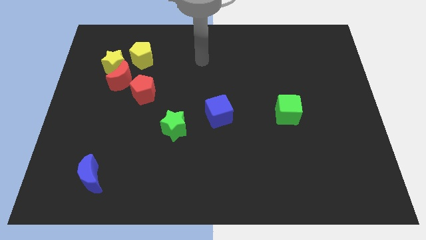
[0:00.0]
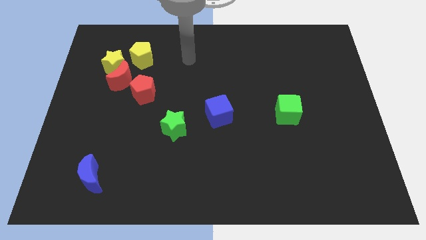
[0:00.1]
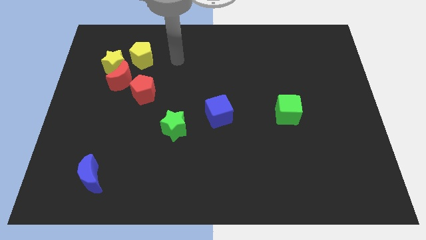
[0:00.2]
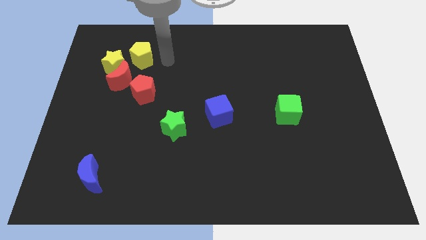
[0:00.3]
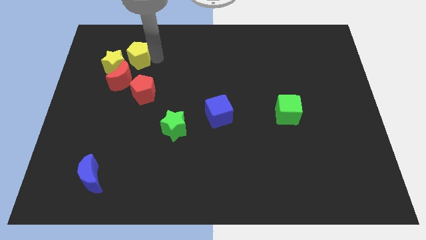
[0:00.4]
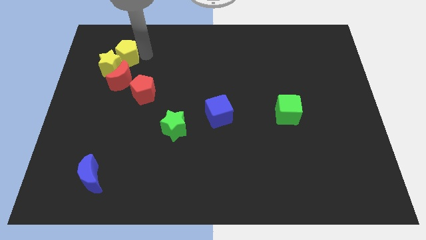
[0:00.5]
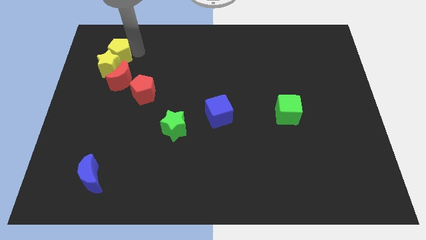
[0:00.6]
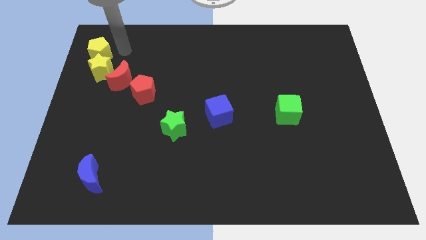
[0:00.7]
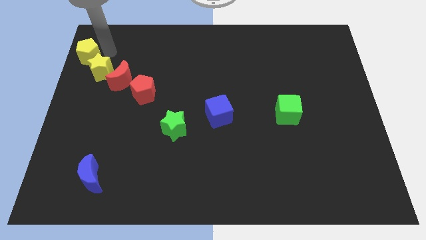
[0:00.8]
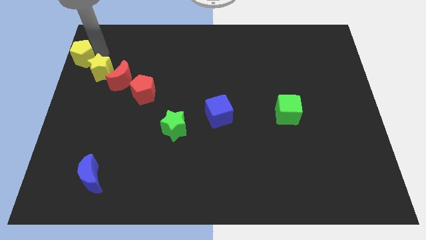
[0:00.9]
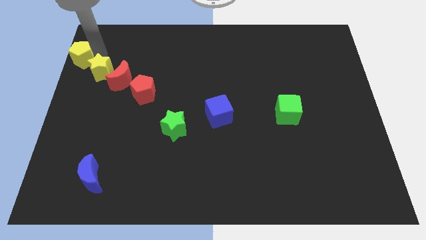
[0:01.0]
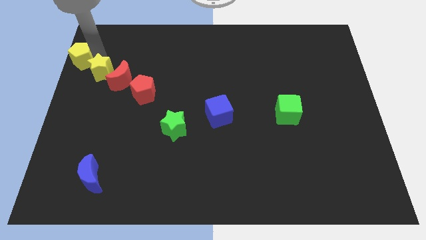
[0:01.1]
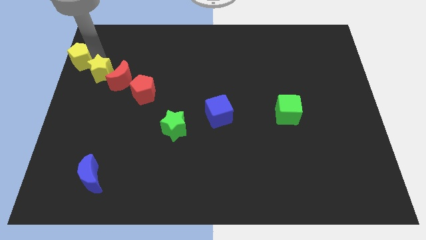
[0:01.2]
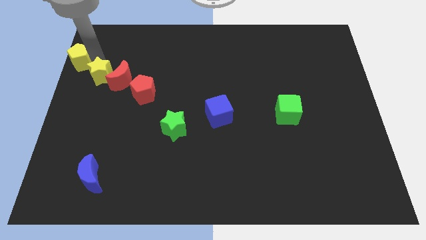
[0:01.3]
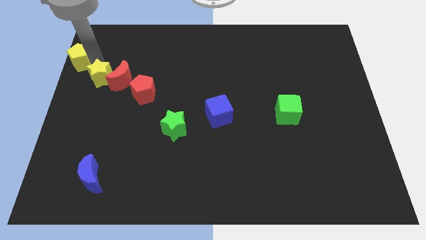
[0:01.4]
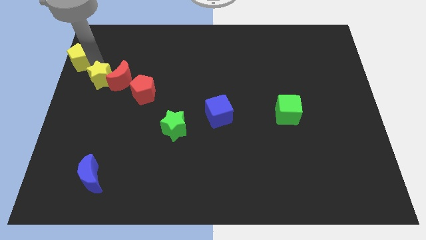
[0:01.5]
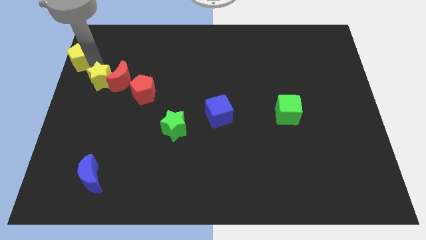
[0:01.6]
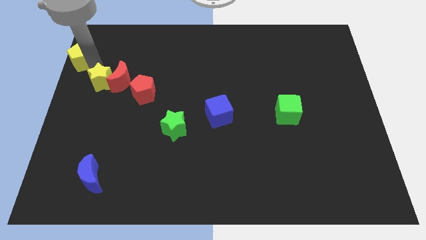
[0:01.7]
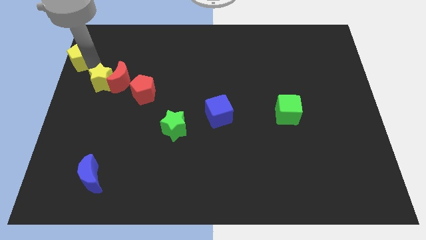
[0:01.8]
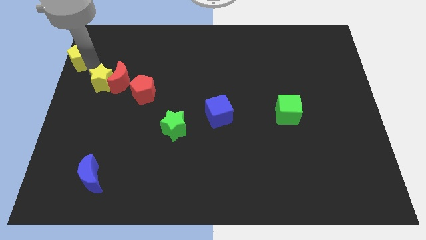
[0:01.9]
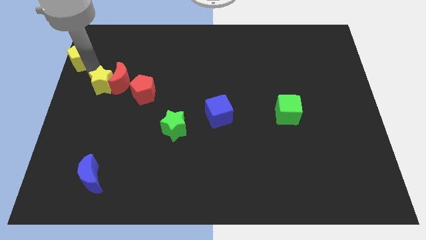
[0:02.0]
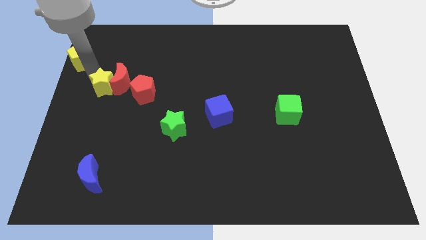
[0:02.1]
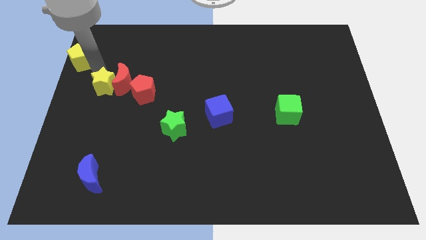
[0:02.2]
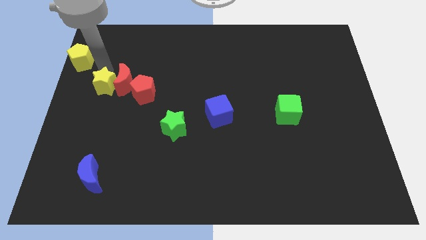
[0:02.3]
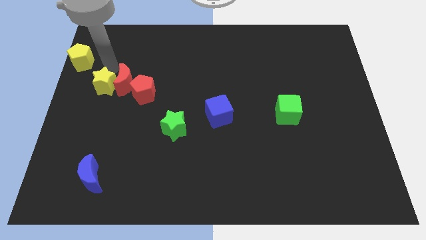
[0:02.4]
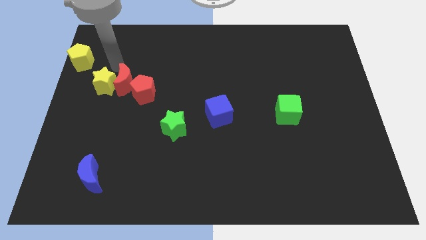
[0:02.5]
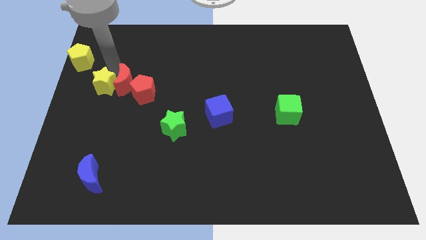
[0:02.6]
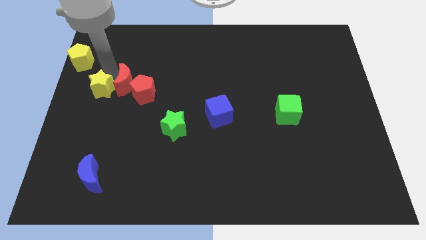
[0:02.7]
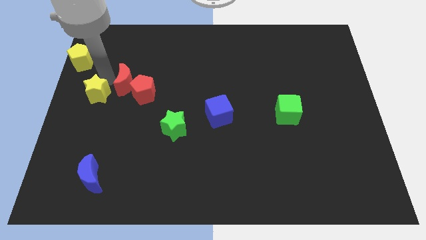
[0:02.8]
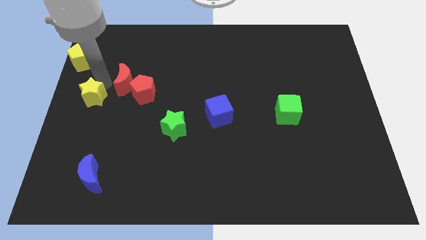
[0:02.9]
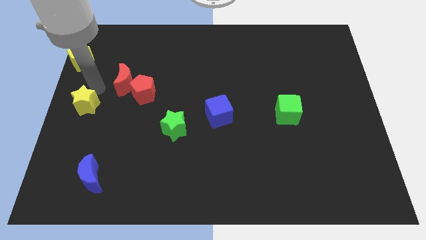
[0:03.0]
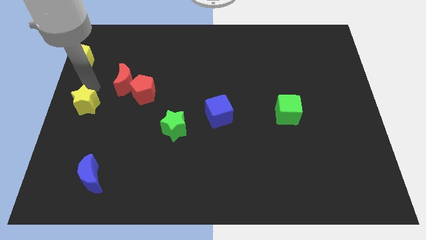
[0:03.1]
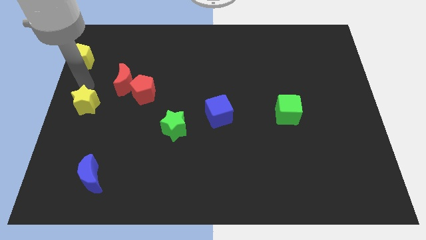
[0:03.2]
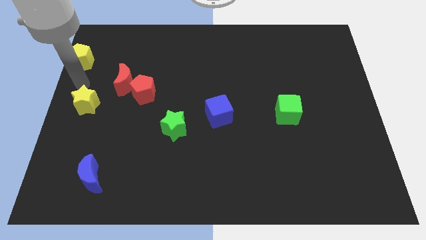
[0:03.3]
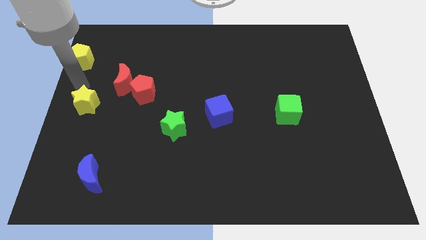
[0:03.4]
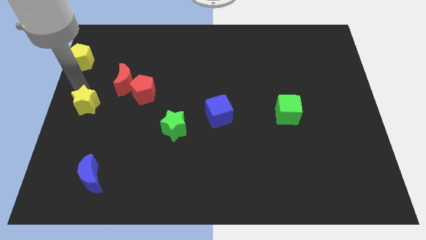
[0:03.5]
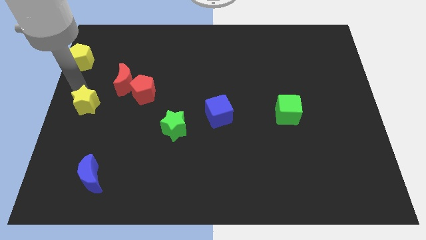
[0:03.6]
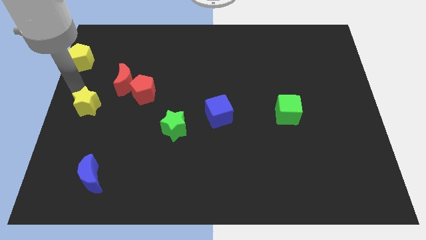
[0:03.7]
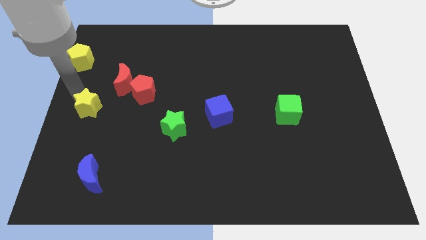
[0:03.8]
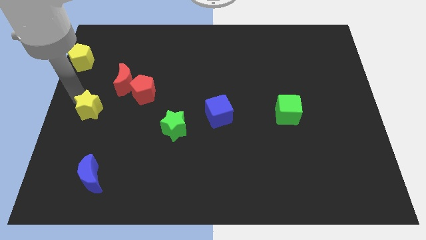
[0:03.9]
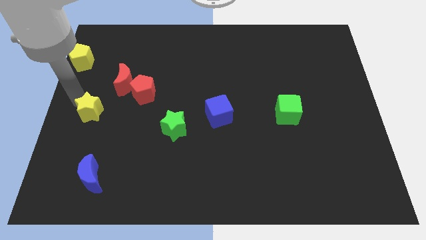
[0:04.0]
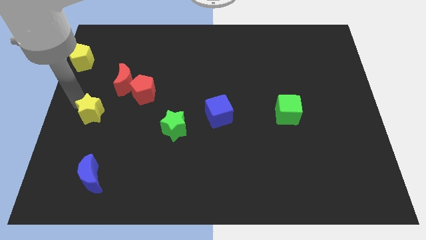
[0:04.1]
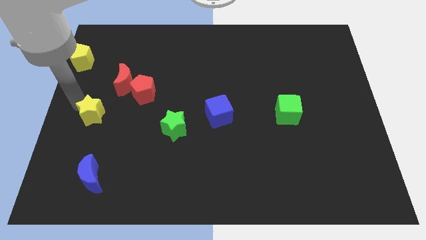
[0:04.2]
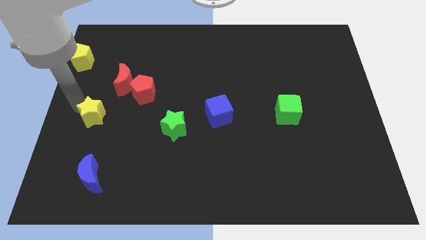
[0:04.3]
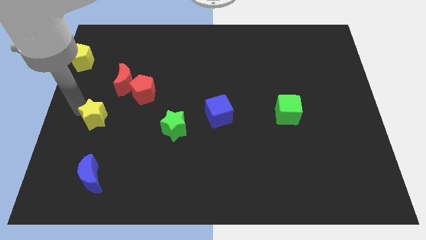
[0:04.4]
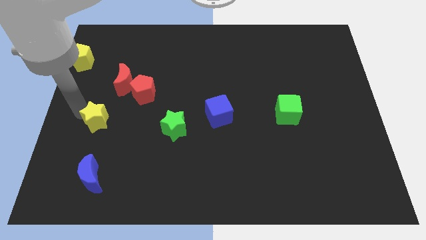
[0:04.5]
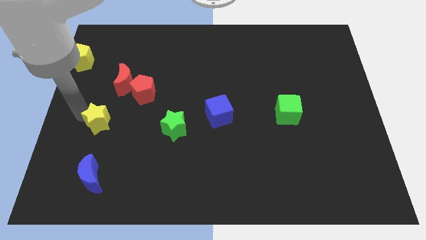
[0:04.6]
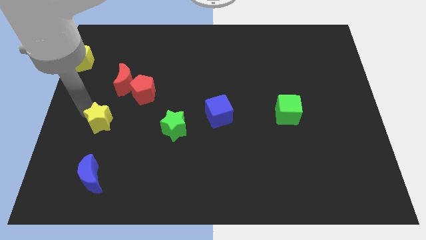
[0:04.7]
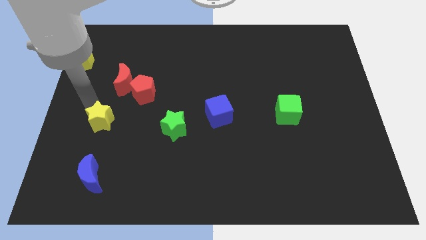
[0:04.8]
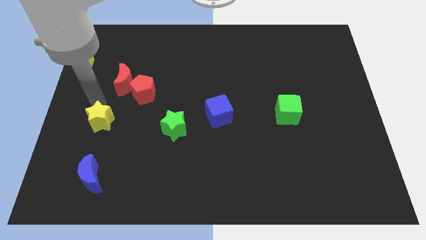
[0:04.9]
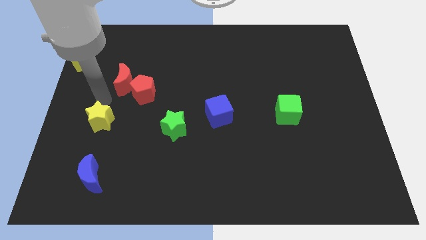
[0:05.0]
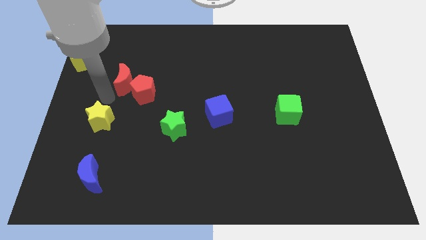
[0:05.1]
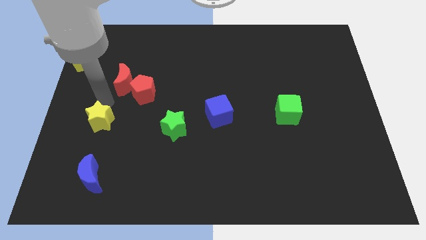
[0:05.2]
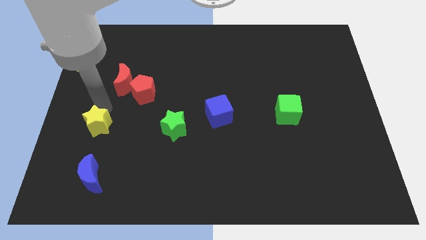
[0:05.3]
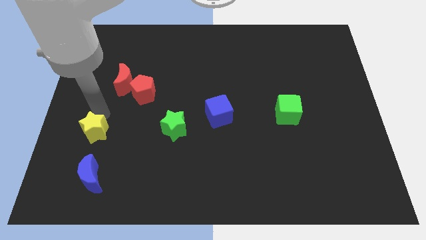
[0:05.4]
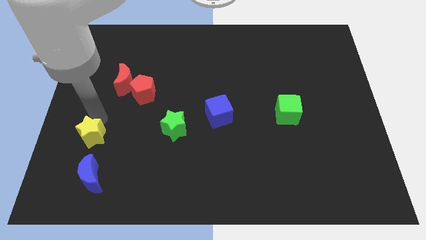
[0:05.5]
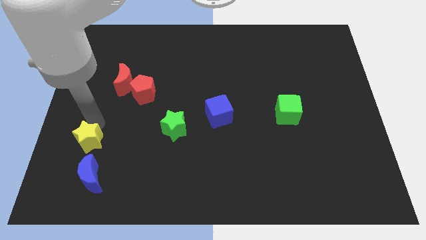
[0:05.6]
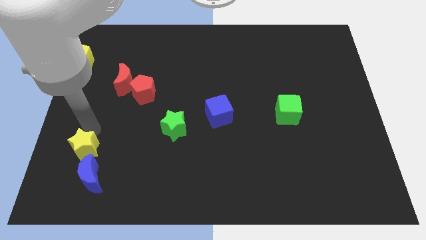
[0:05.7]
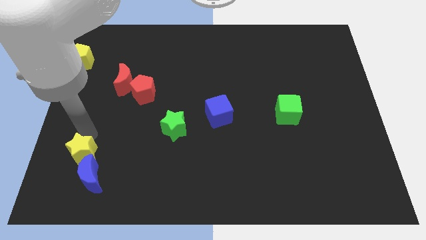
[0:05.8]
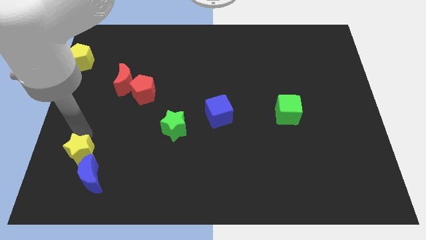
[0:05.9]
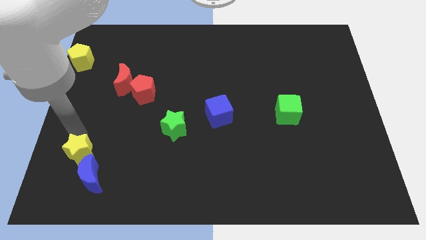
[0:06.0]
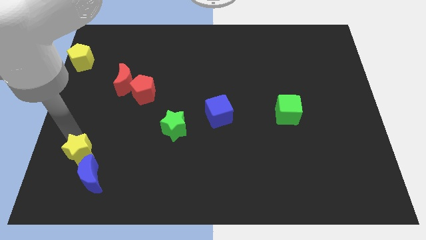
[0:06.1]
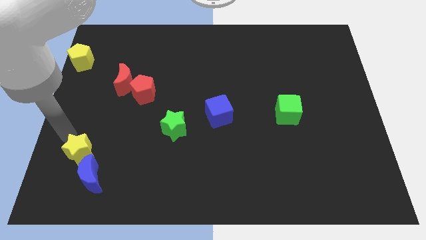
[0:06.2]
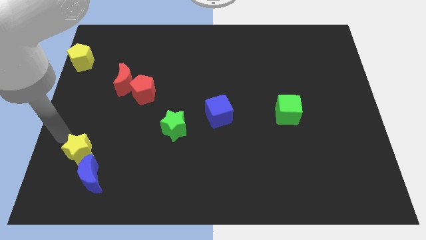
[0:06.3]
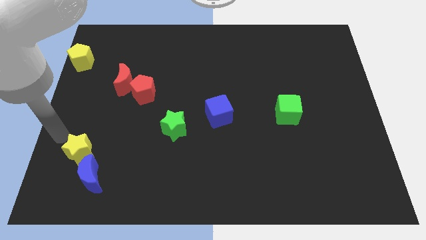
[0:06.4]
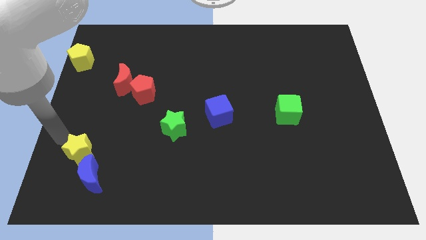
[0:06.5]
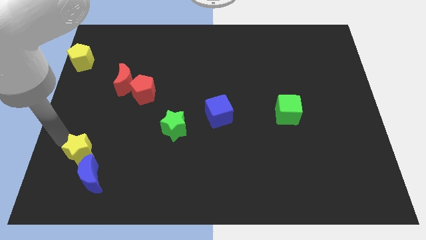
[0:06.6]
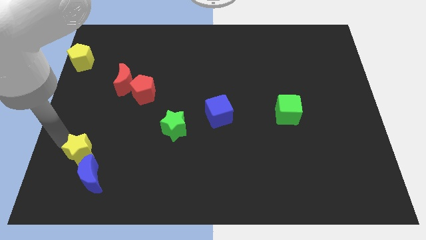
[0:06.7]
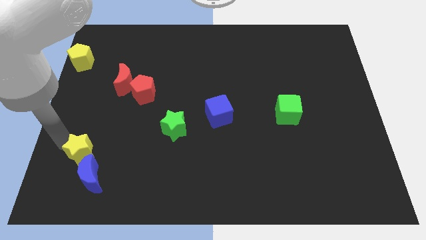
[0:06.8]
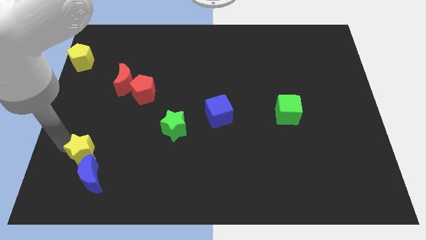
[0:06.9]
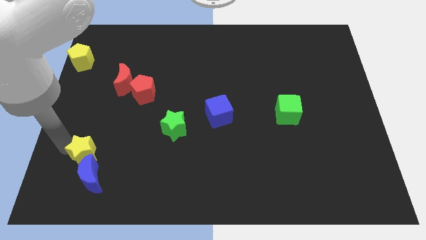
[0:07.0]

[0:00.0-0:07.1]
move the yellow star to the blue moon

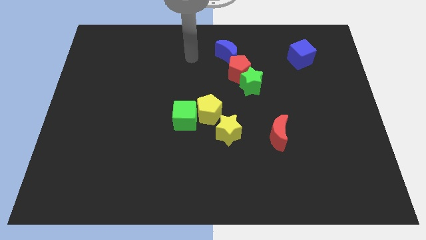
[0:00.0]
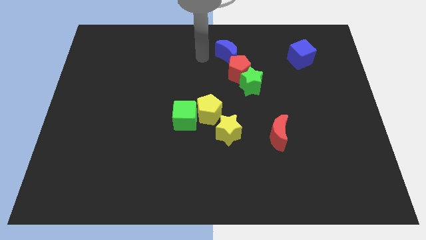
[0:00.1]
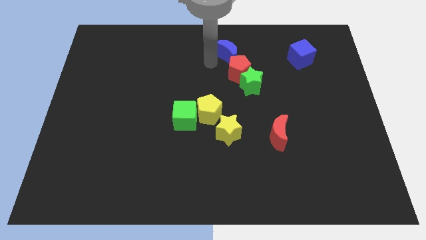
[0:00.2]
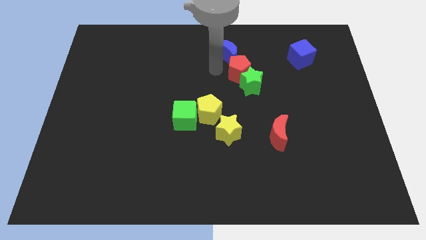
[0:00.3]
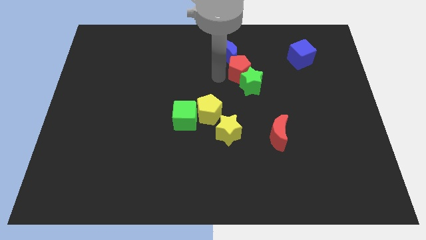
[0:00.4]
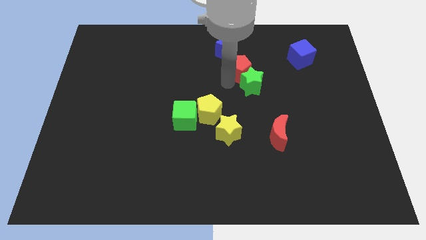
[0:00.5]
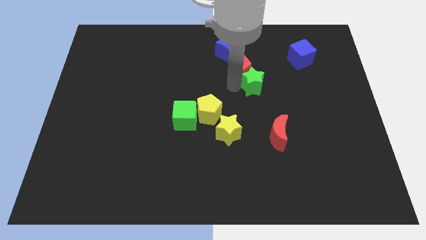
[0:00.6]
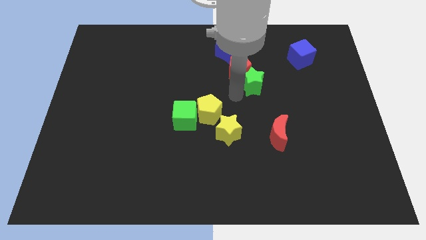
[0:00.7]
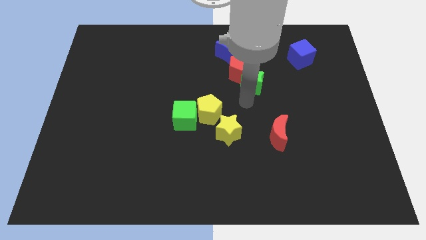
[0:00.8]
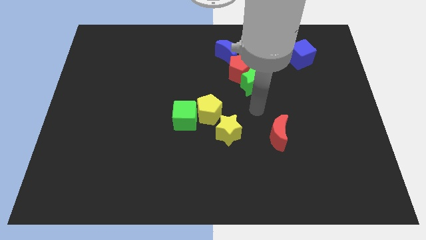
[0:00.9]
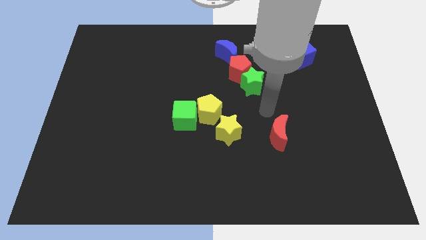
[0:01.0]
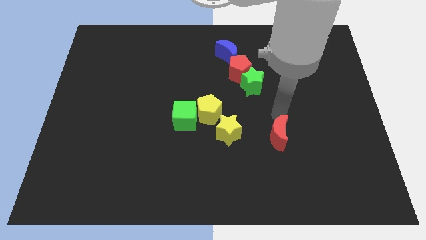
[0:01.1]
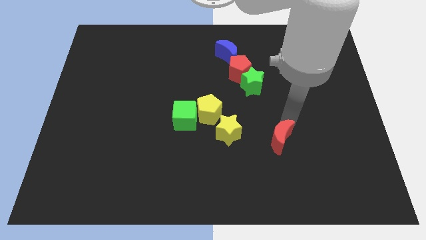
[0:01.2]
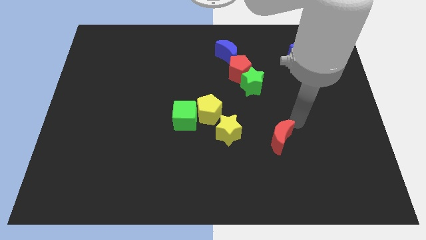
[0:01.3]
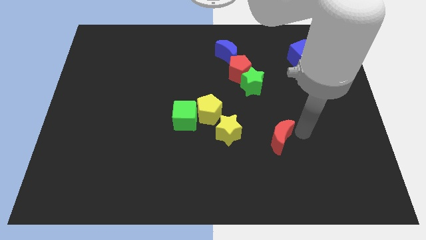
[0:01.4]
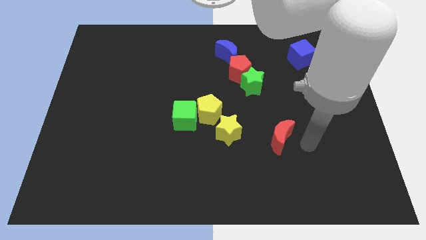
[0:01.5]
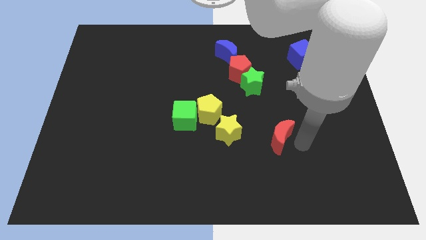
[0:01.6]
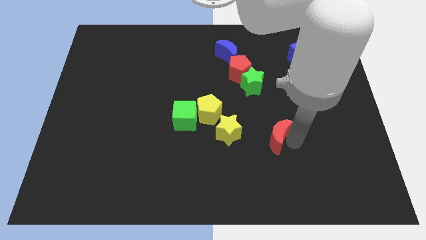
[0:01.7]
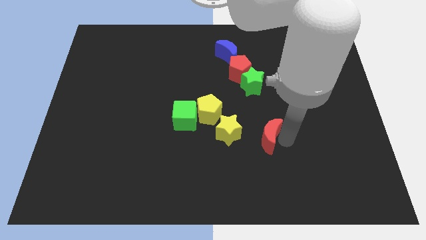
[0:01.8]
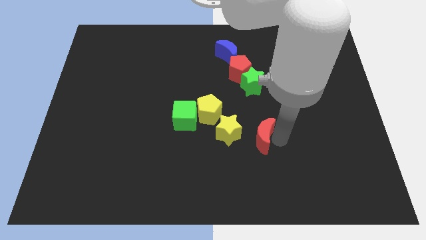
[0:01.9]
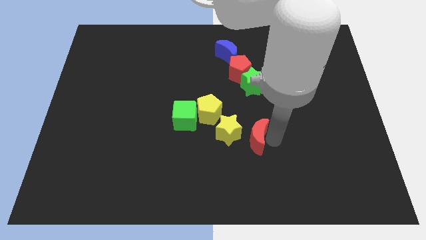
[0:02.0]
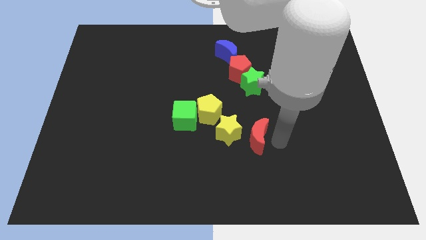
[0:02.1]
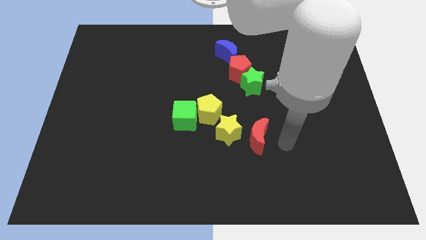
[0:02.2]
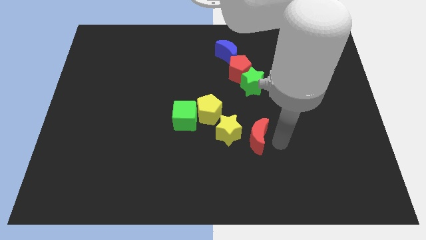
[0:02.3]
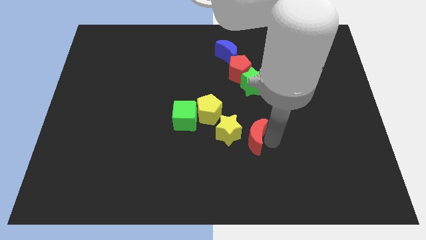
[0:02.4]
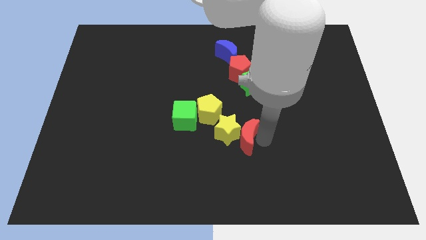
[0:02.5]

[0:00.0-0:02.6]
slide the red moon to the yellow star
